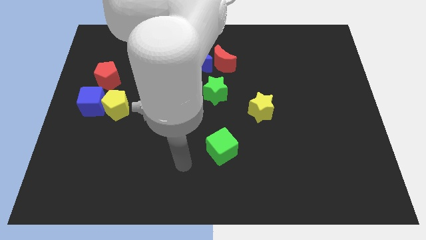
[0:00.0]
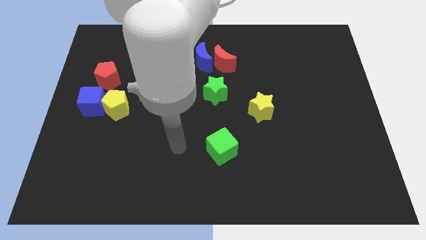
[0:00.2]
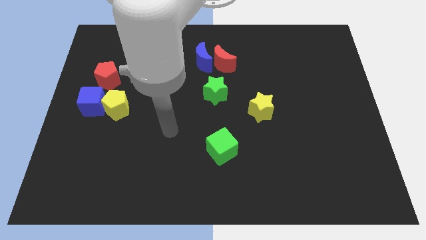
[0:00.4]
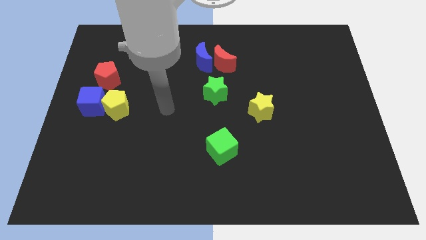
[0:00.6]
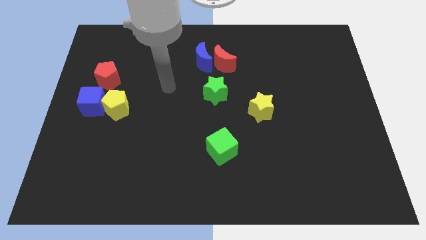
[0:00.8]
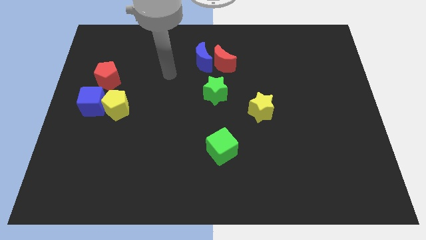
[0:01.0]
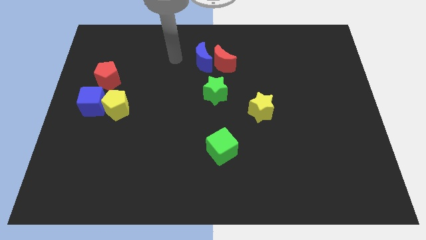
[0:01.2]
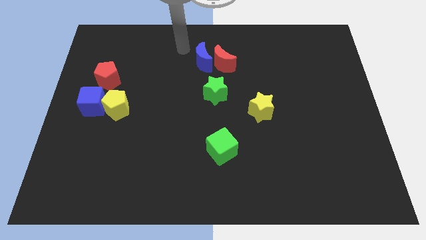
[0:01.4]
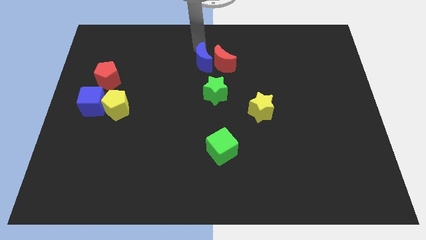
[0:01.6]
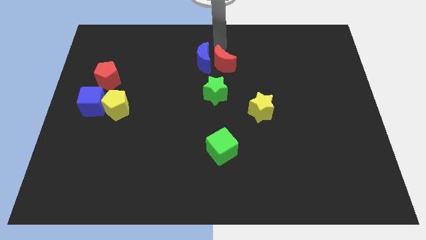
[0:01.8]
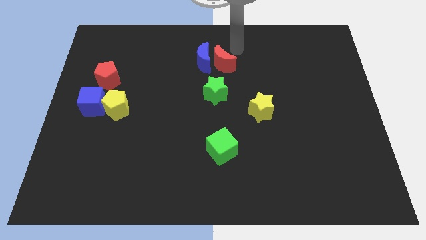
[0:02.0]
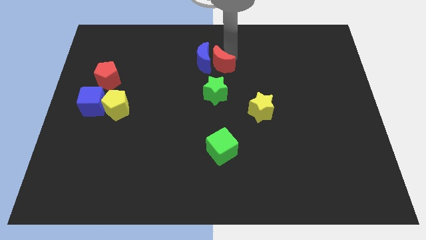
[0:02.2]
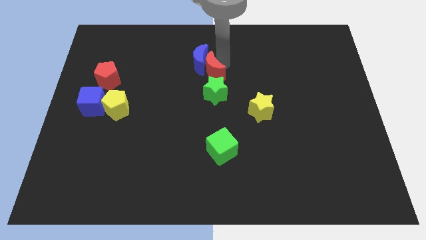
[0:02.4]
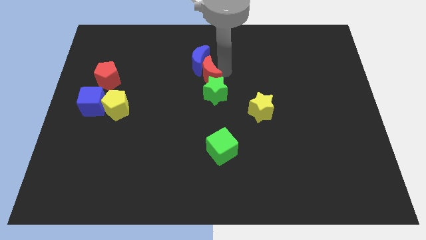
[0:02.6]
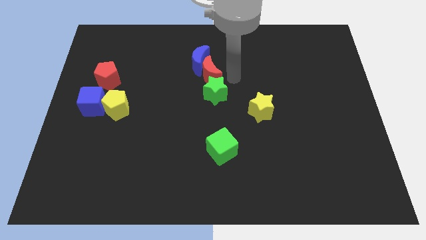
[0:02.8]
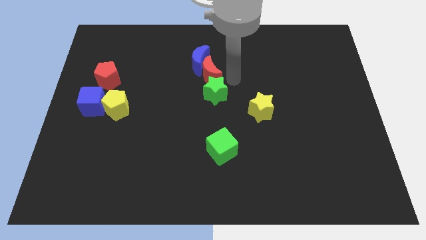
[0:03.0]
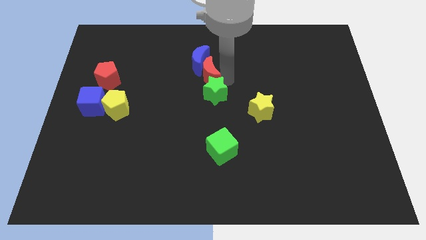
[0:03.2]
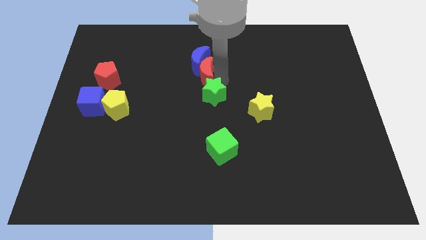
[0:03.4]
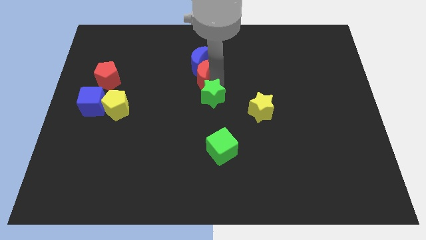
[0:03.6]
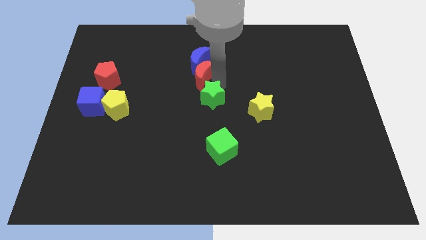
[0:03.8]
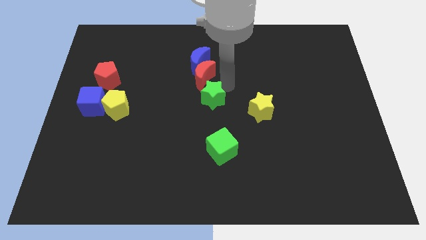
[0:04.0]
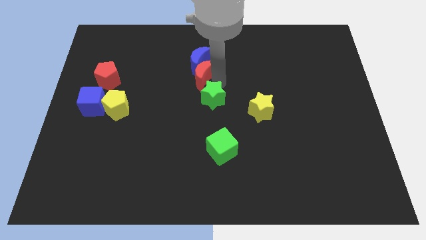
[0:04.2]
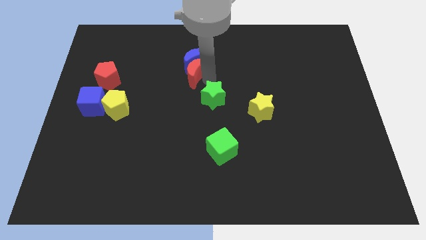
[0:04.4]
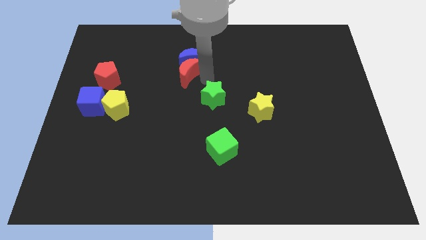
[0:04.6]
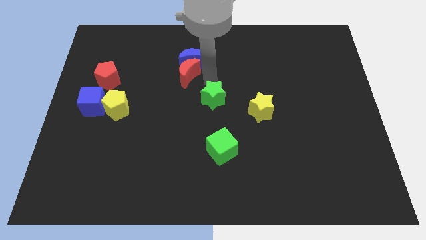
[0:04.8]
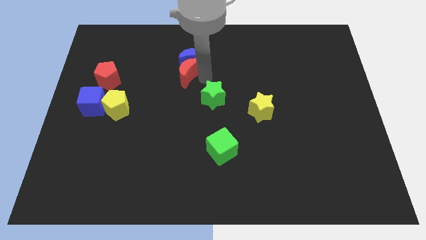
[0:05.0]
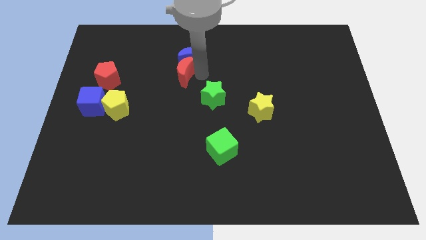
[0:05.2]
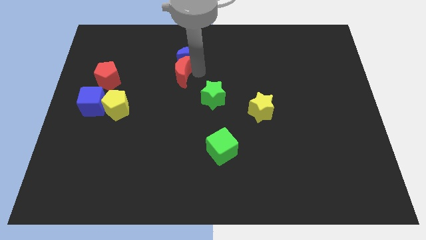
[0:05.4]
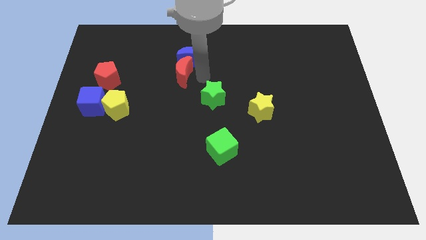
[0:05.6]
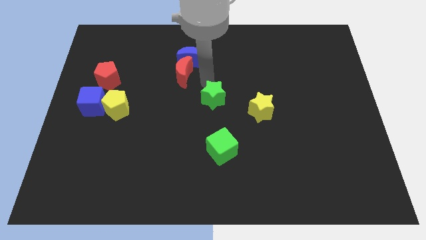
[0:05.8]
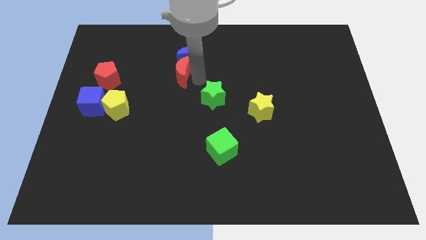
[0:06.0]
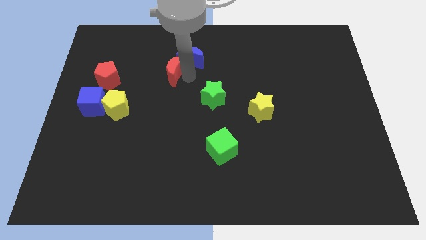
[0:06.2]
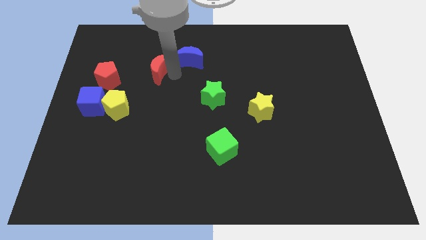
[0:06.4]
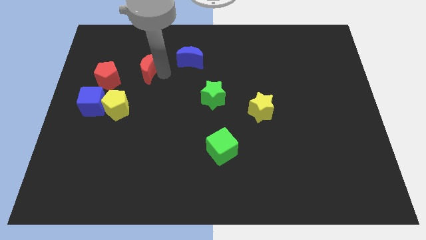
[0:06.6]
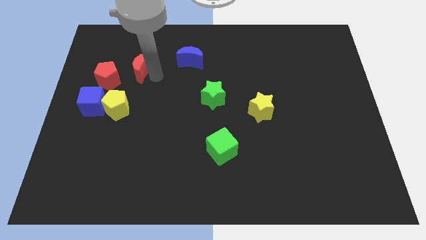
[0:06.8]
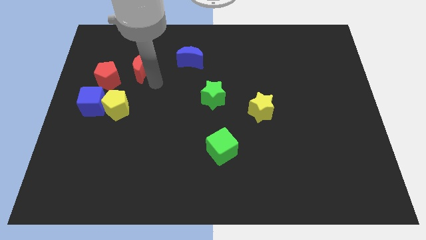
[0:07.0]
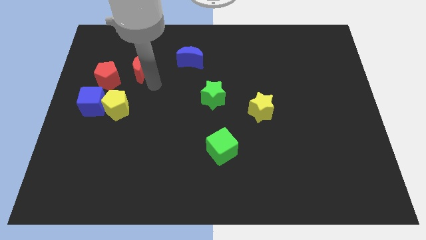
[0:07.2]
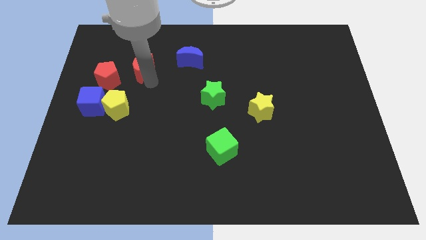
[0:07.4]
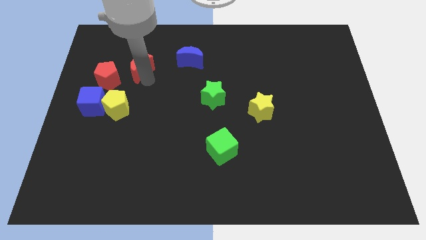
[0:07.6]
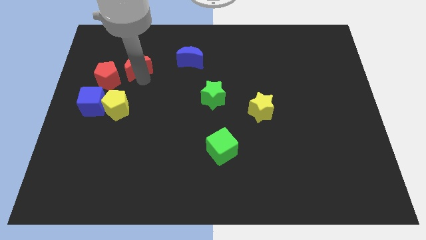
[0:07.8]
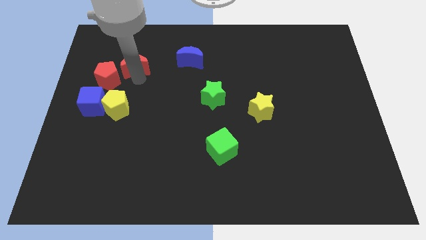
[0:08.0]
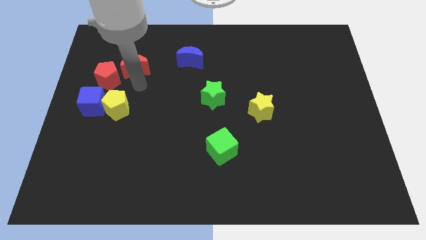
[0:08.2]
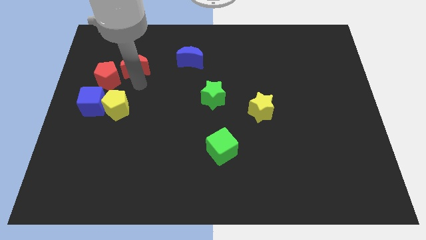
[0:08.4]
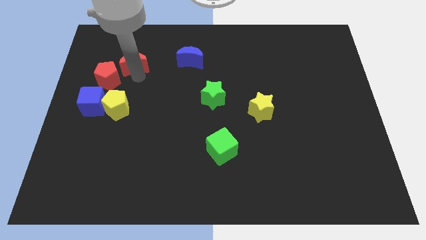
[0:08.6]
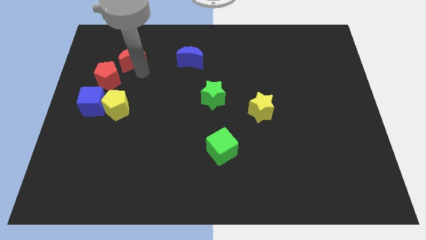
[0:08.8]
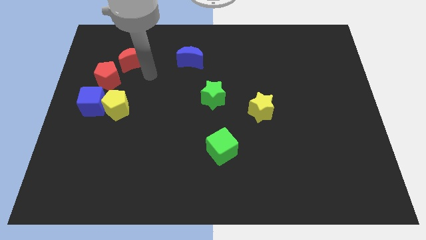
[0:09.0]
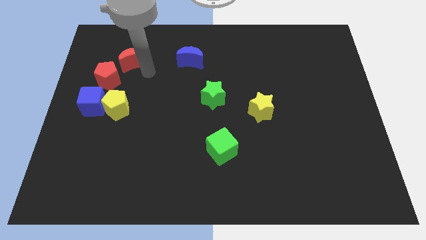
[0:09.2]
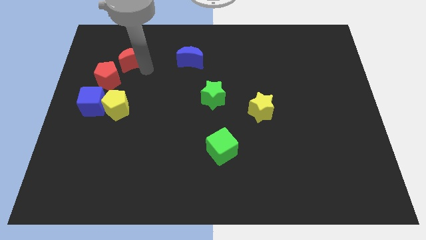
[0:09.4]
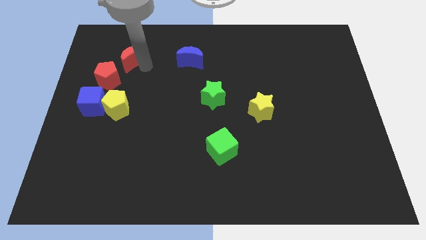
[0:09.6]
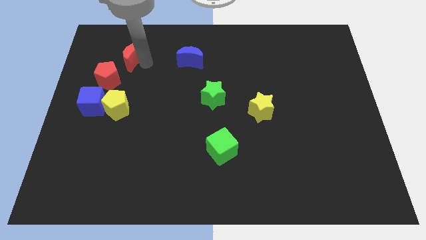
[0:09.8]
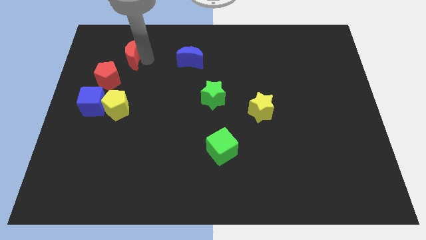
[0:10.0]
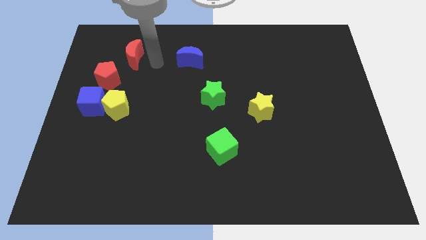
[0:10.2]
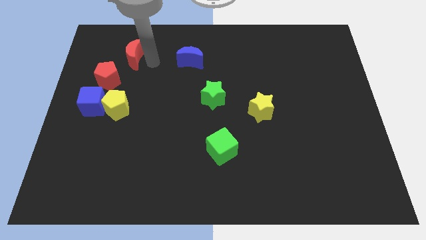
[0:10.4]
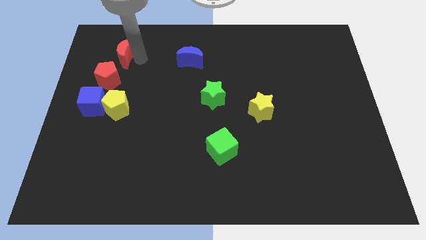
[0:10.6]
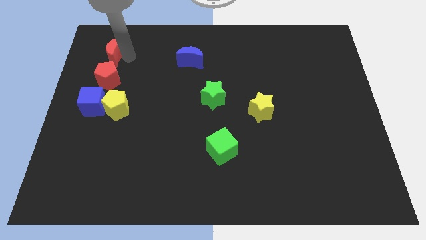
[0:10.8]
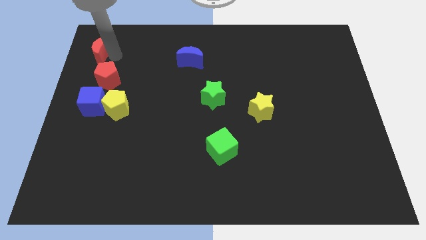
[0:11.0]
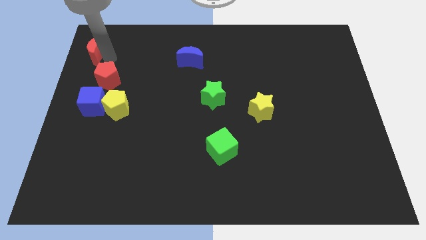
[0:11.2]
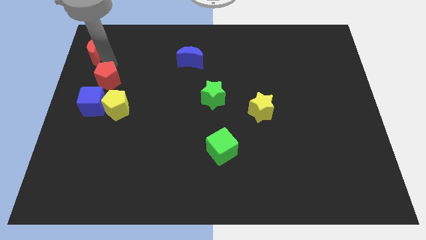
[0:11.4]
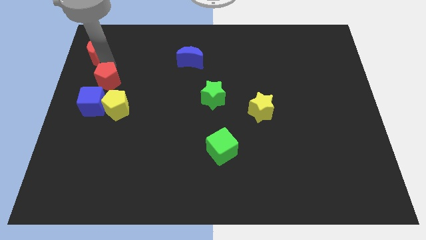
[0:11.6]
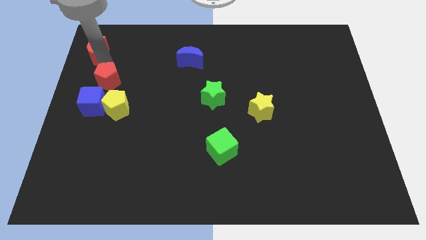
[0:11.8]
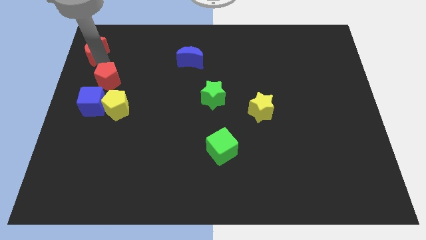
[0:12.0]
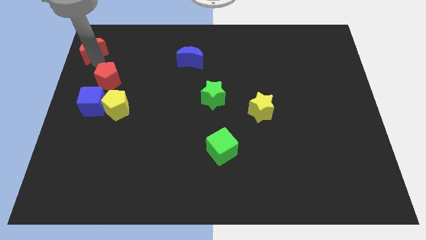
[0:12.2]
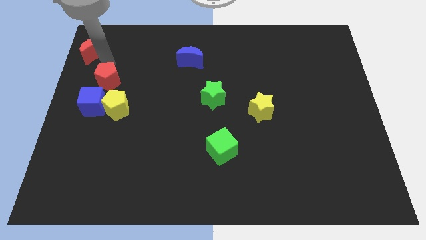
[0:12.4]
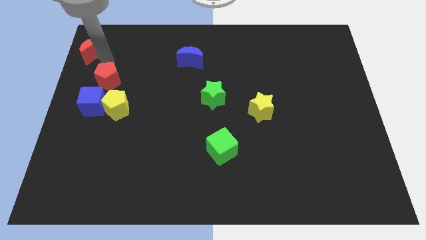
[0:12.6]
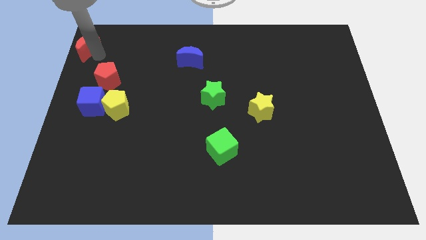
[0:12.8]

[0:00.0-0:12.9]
slide the red moon to the top left

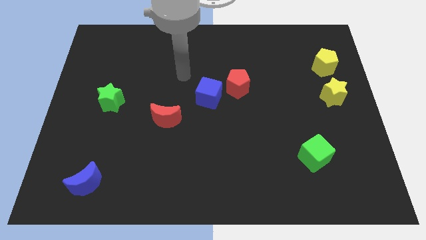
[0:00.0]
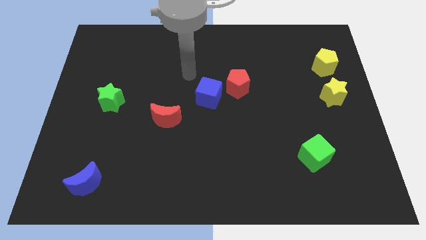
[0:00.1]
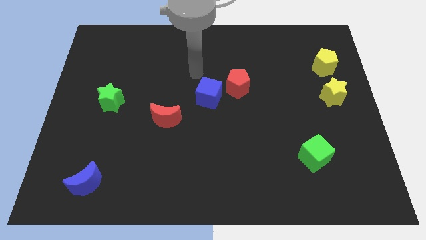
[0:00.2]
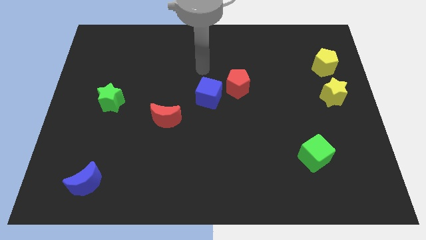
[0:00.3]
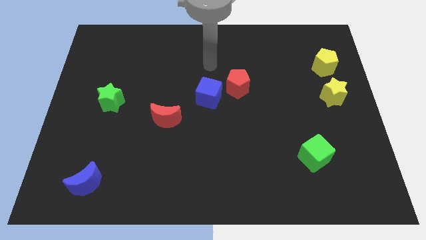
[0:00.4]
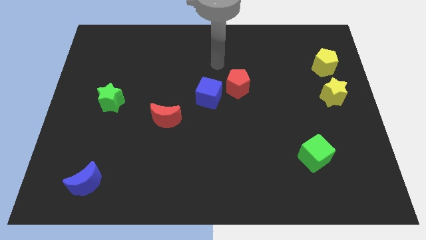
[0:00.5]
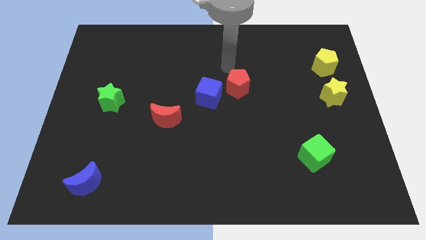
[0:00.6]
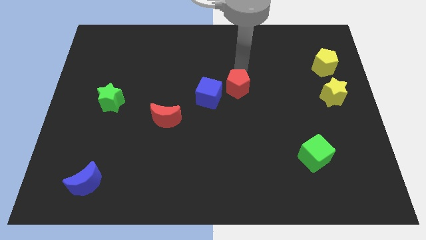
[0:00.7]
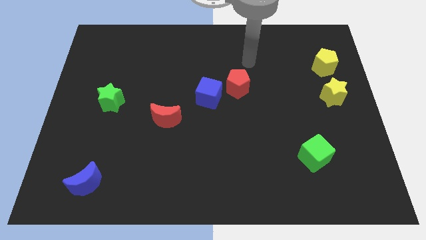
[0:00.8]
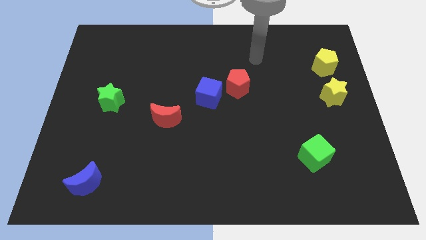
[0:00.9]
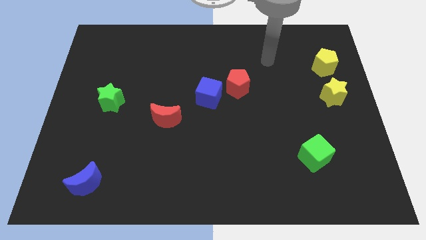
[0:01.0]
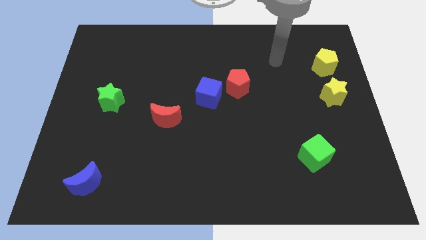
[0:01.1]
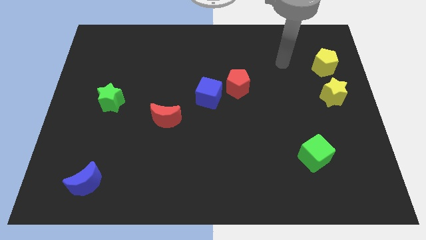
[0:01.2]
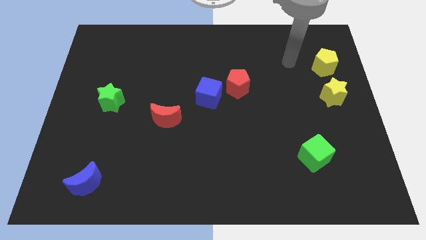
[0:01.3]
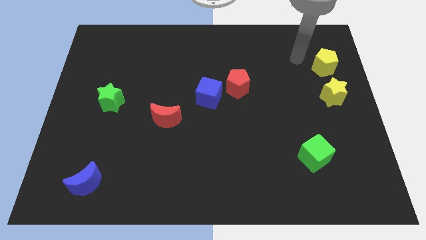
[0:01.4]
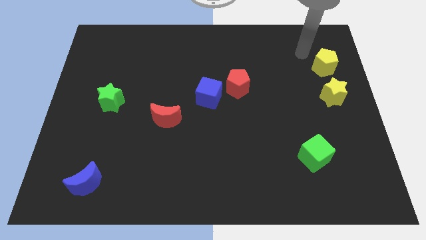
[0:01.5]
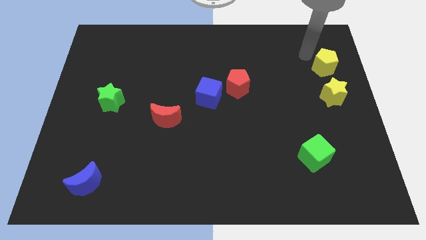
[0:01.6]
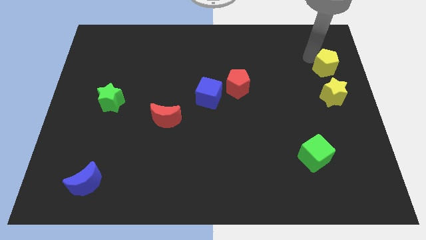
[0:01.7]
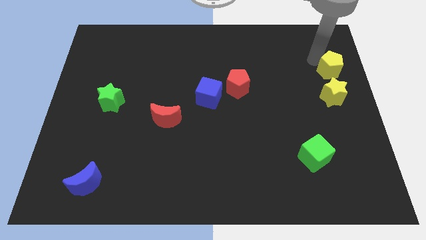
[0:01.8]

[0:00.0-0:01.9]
push the yellow pentagon to the right side
